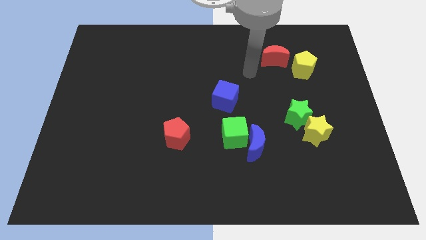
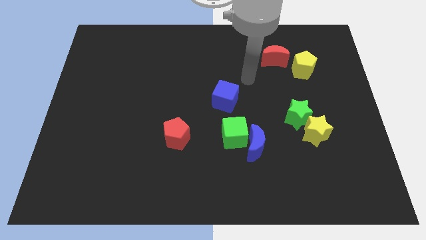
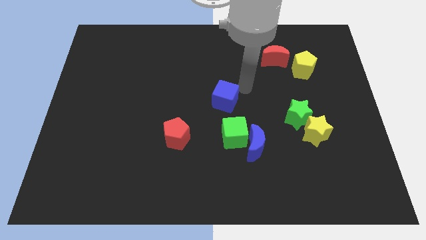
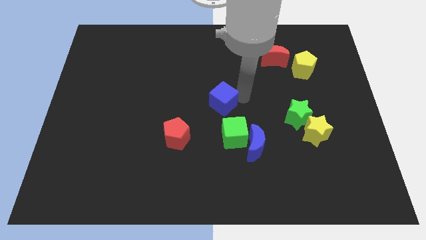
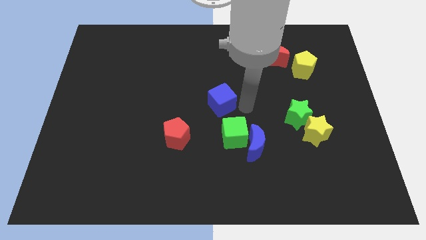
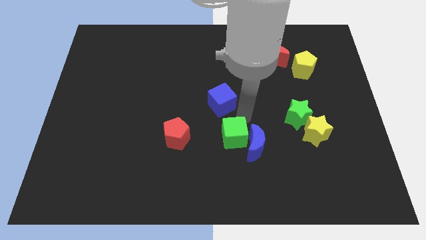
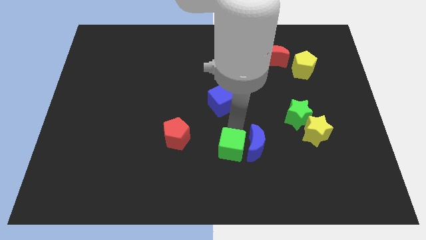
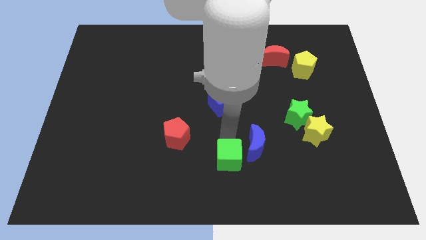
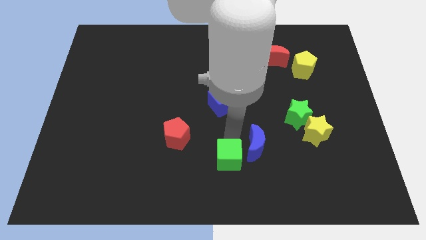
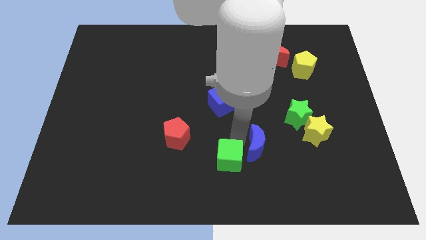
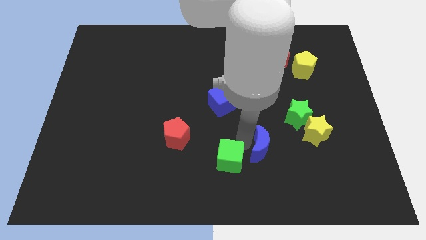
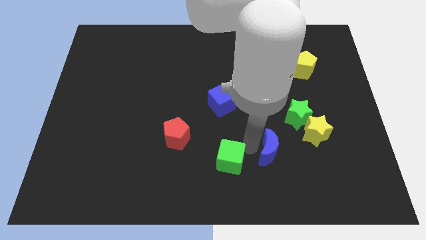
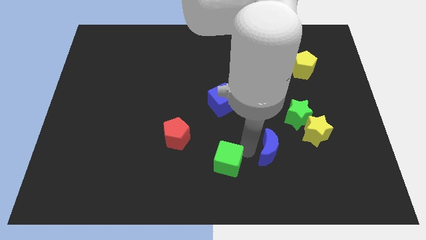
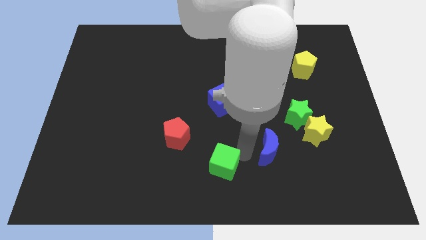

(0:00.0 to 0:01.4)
pull the blue moon apart from the green cube

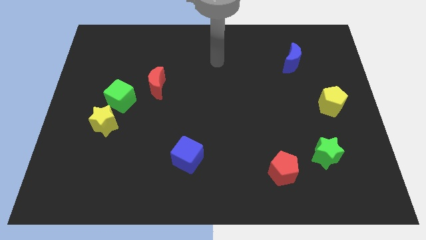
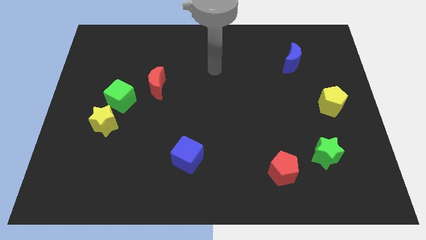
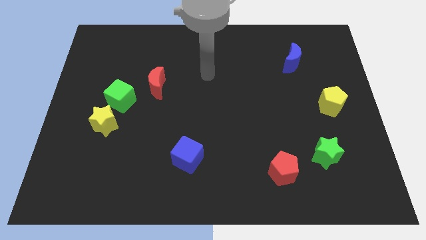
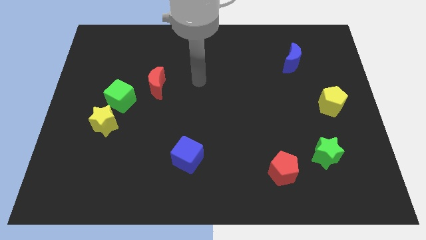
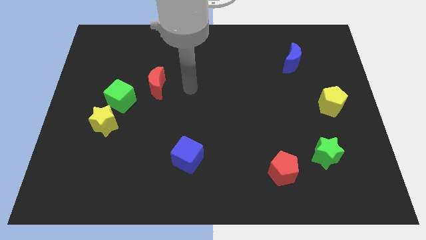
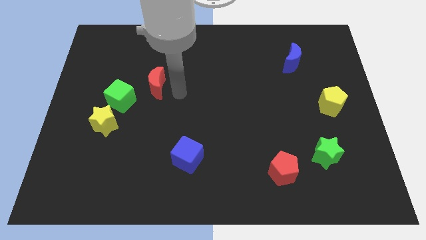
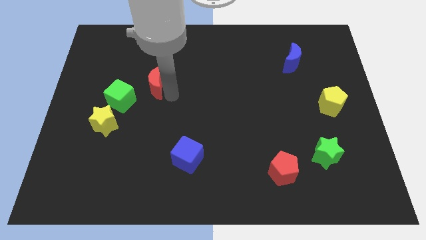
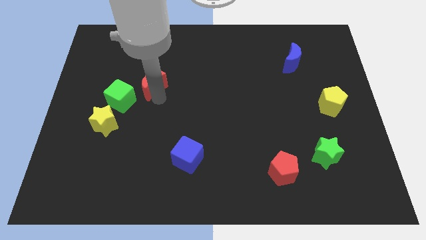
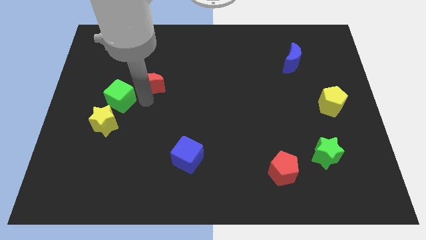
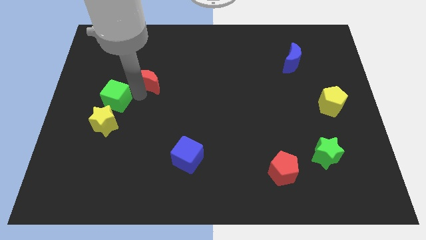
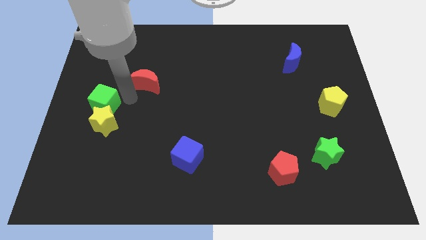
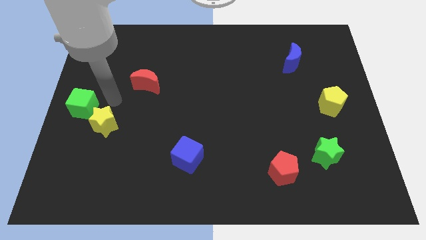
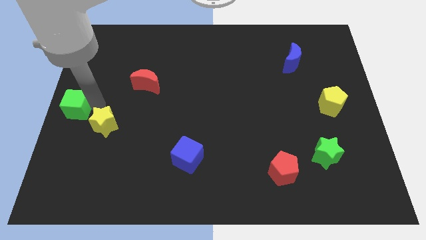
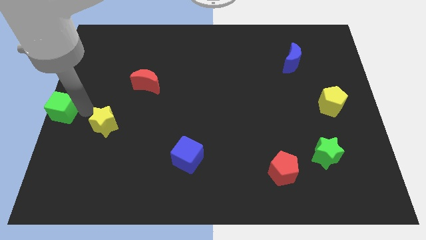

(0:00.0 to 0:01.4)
separate the yellow star from the green cube

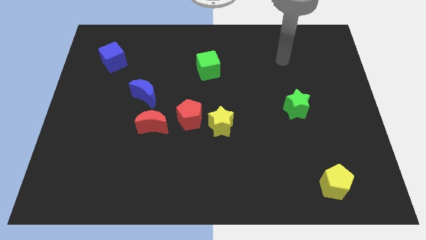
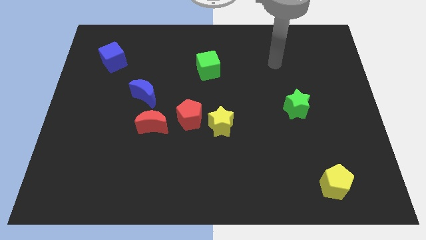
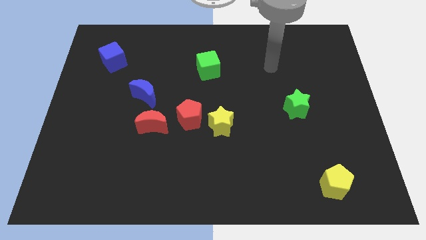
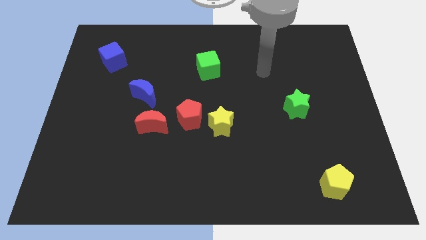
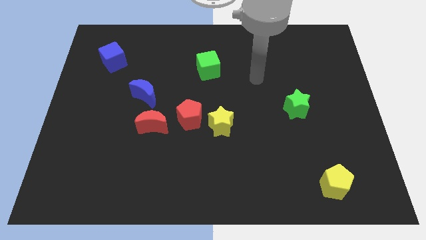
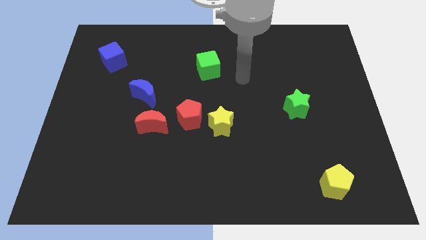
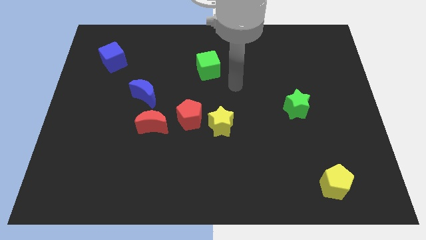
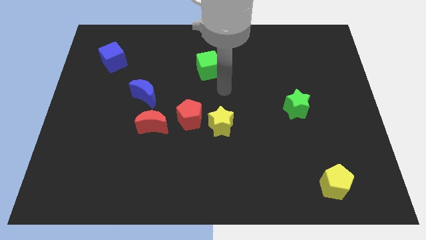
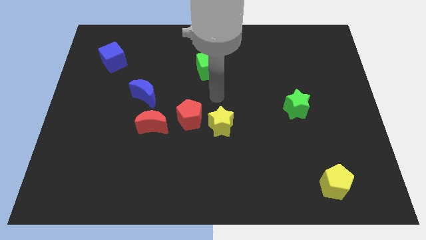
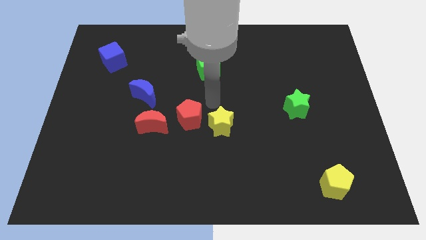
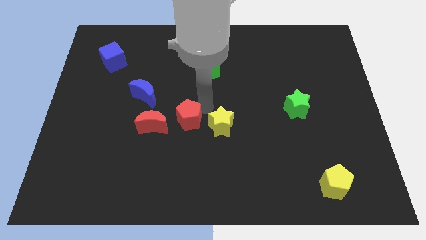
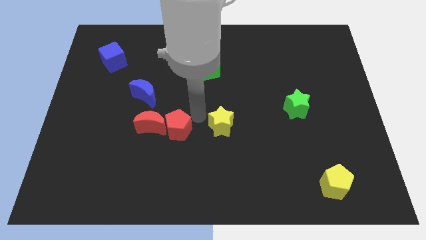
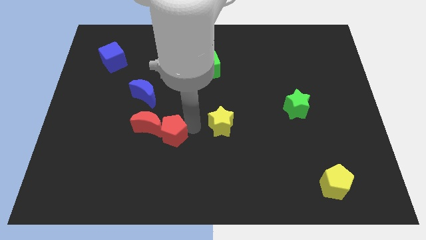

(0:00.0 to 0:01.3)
separate the yellow star from the red pentagon

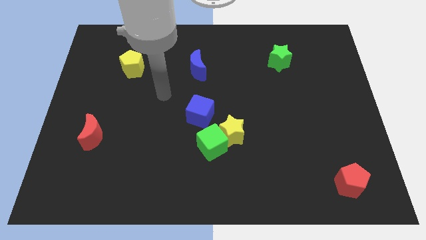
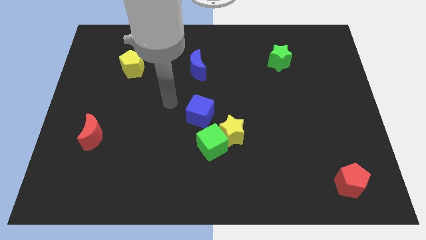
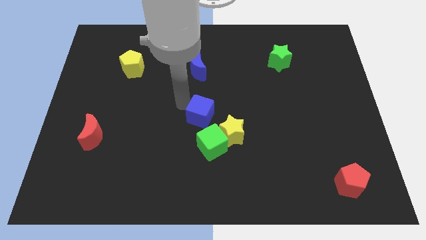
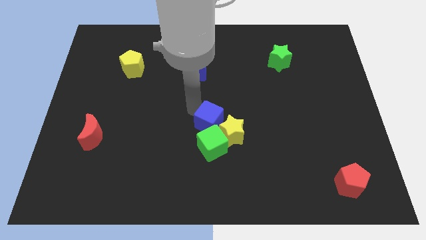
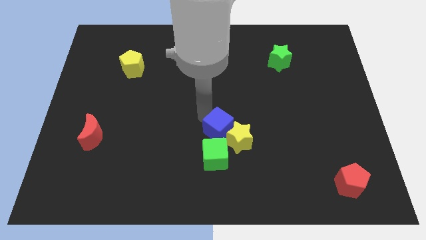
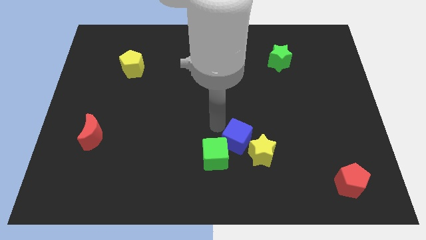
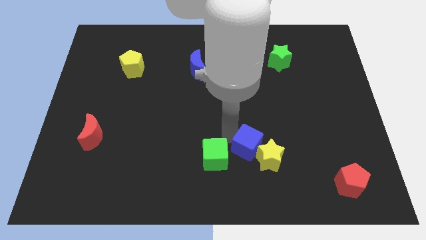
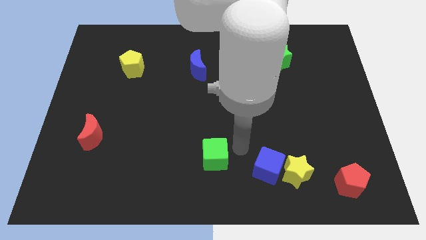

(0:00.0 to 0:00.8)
pull the green cube apart from the yellow star and blue cube

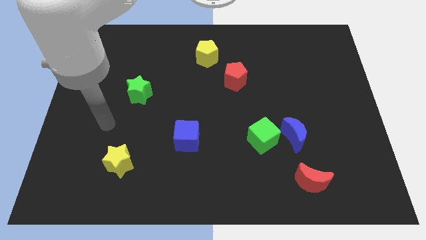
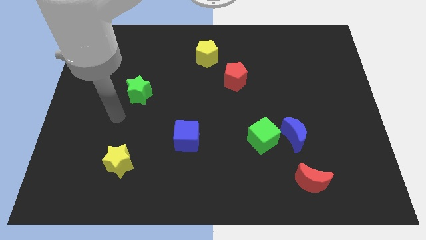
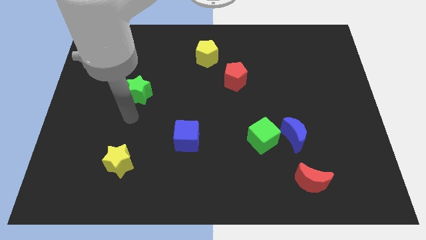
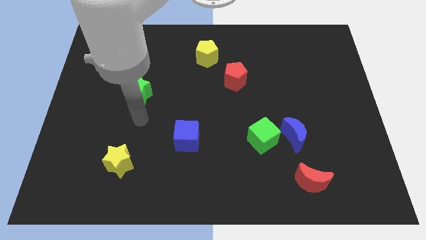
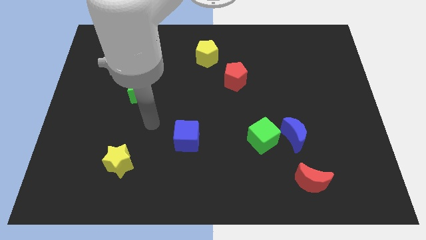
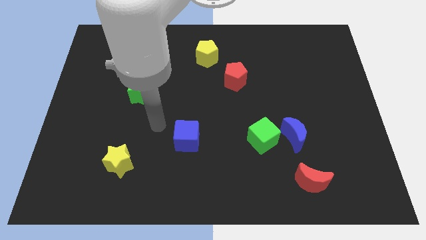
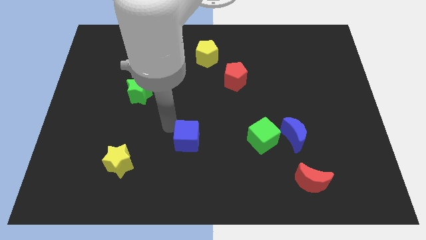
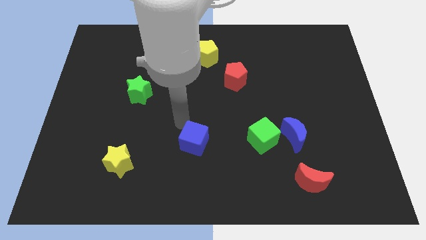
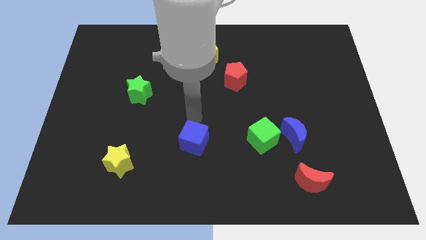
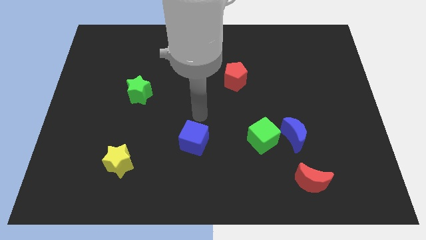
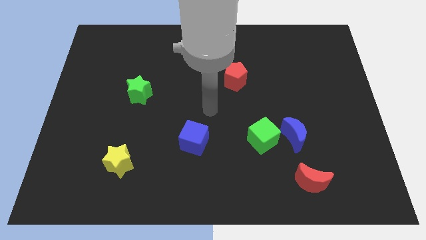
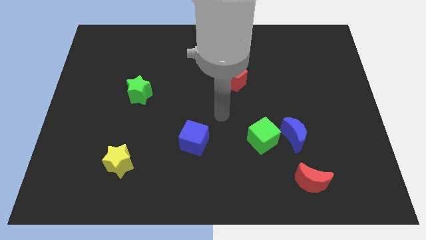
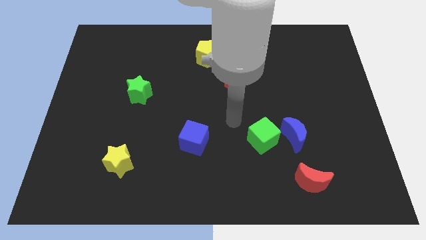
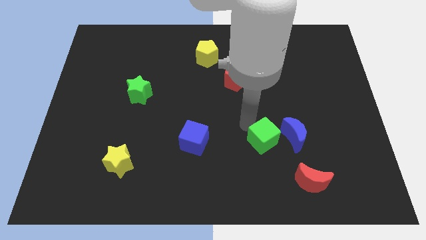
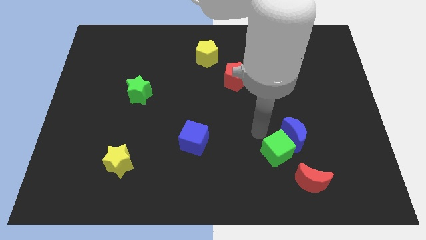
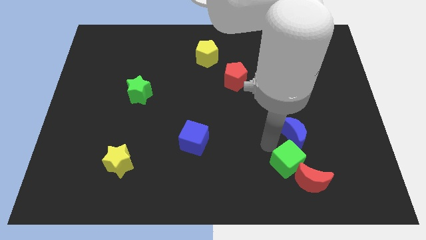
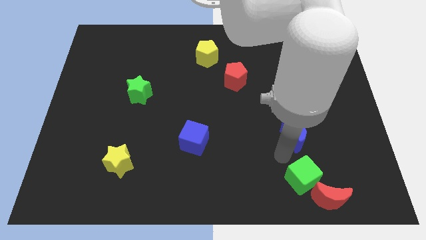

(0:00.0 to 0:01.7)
separate the blue moon from the green cube

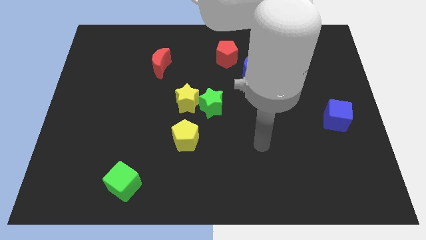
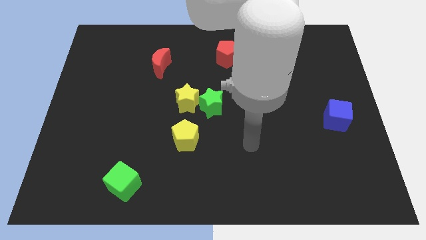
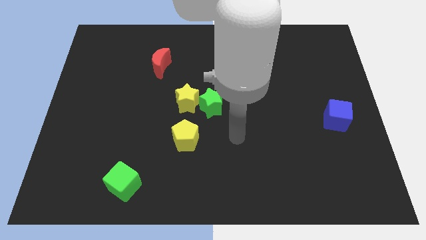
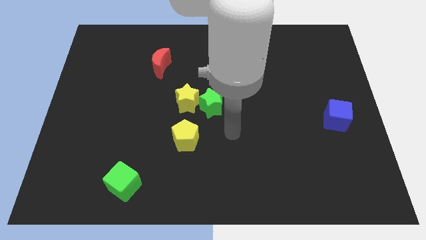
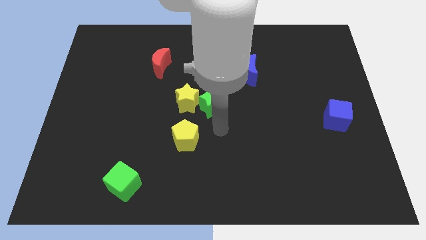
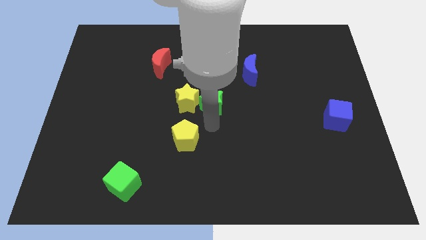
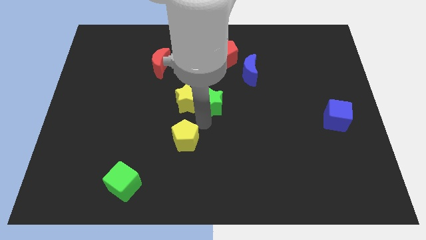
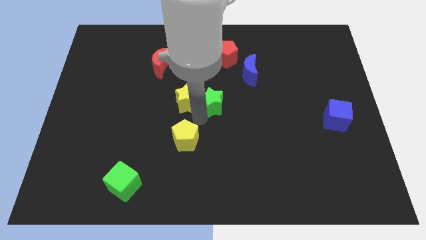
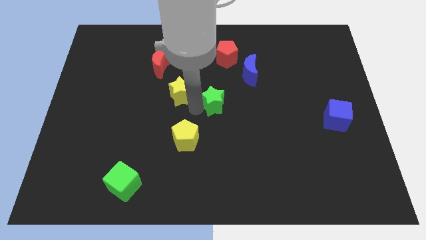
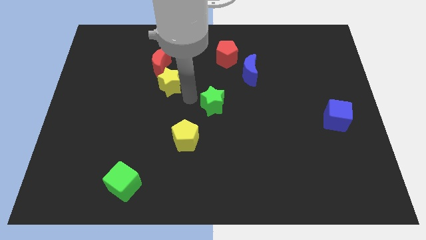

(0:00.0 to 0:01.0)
separate the green star from the yellow star

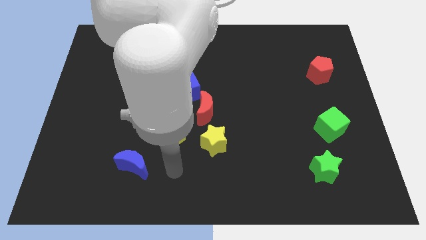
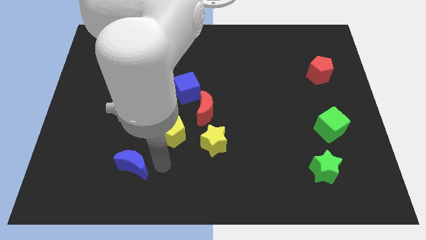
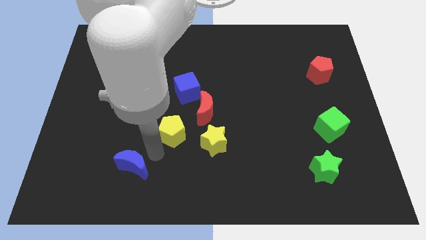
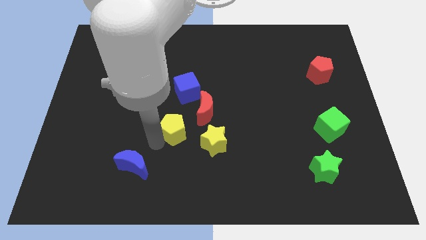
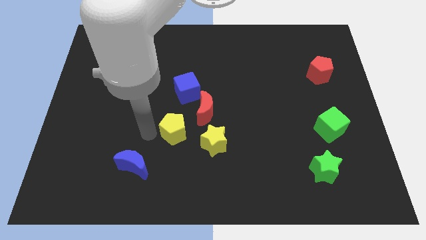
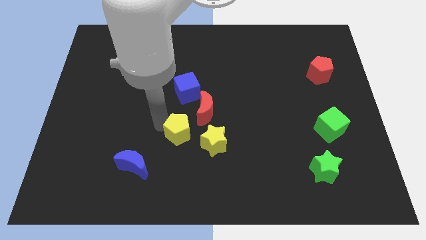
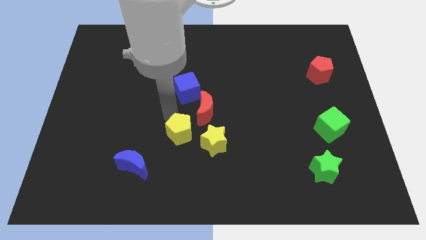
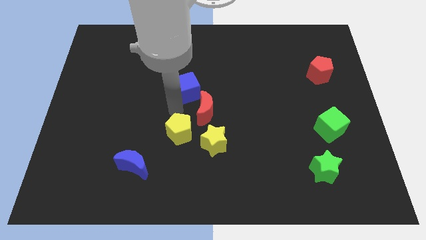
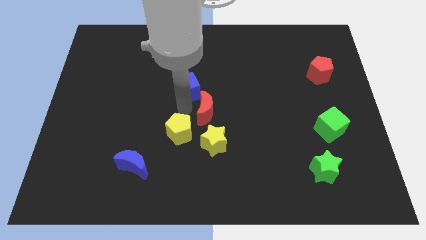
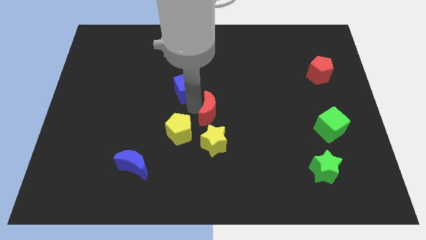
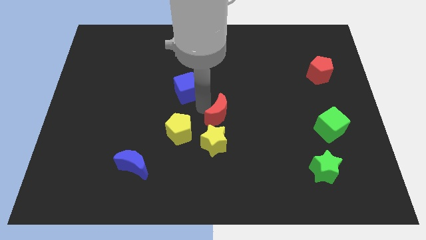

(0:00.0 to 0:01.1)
separate the blue cube from the red moon

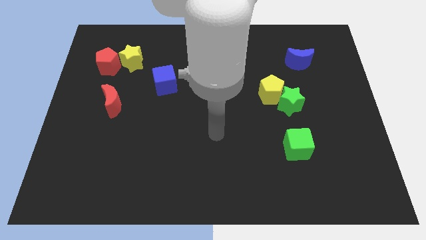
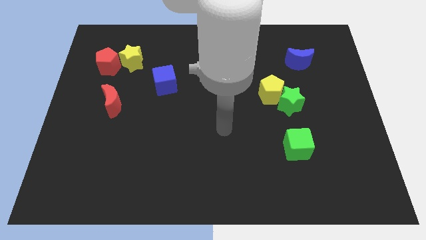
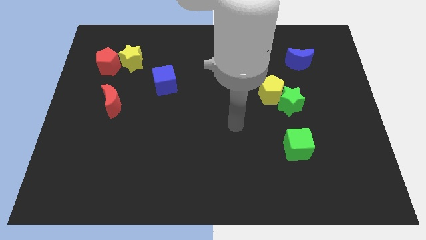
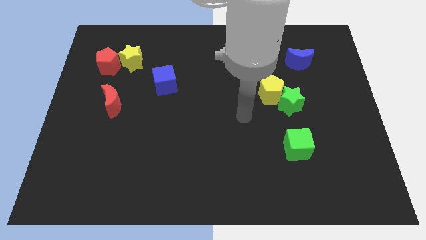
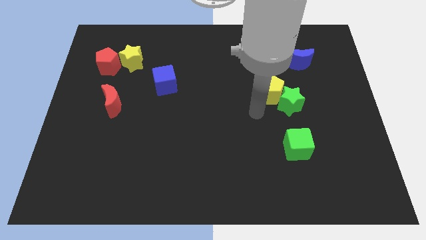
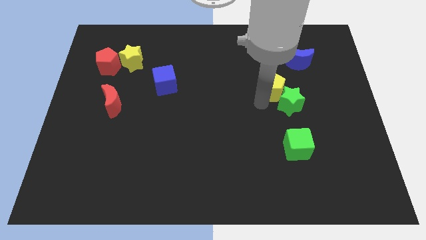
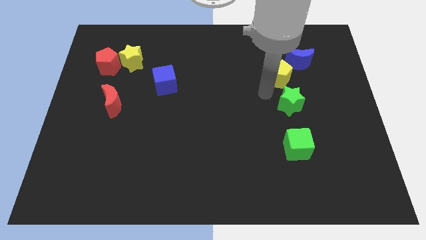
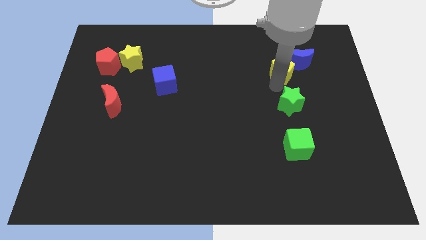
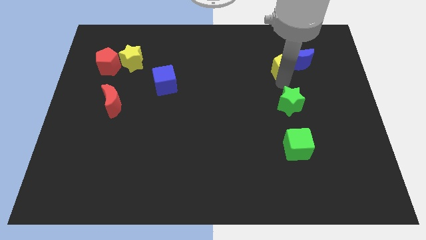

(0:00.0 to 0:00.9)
separate the green star from the yellow pentagon
